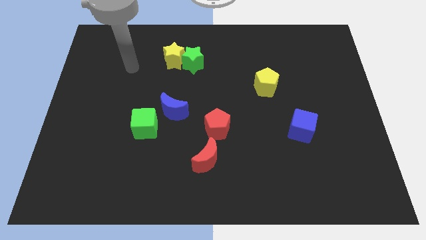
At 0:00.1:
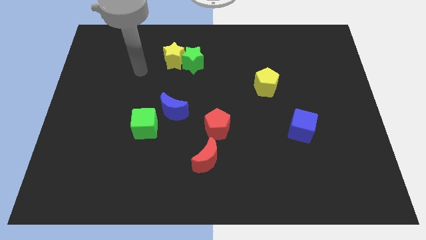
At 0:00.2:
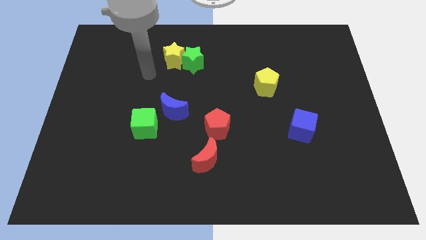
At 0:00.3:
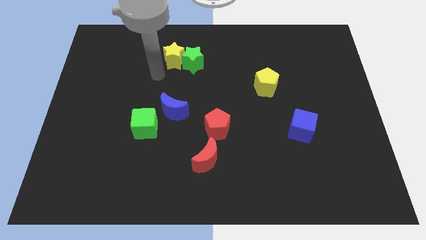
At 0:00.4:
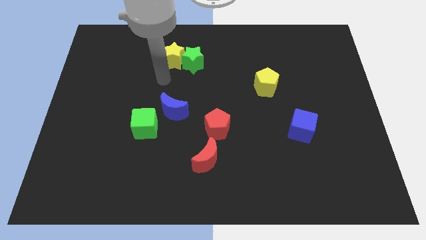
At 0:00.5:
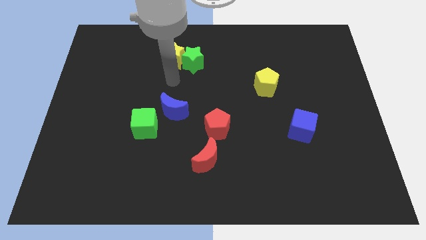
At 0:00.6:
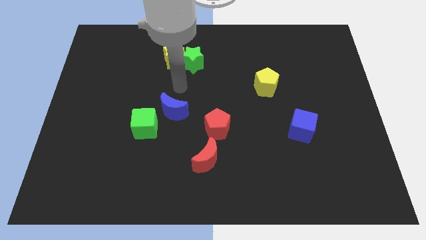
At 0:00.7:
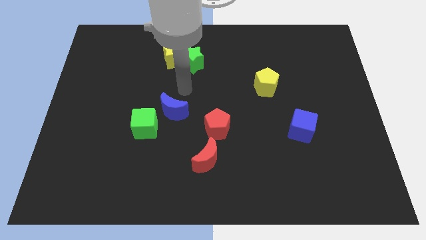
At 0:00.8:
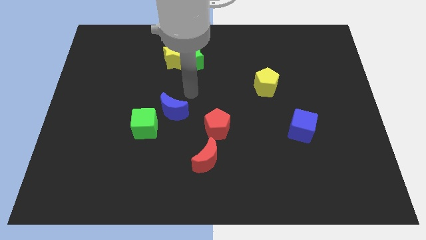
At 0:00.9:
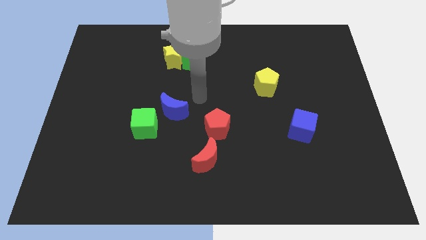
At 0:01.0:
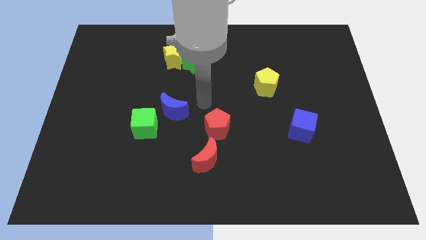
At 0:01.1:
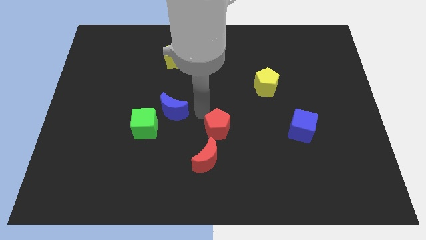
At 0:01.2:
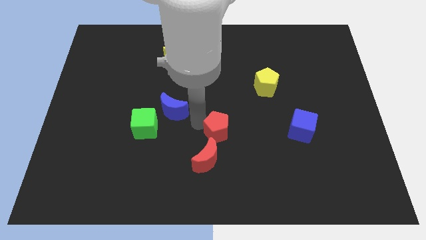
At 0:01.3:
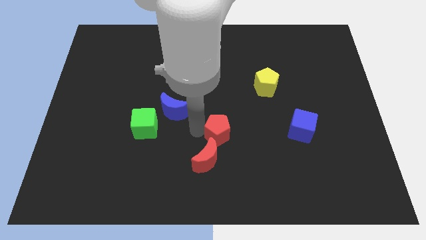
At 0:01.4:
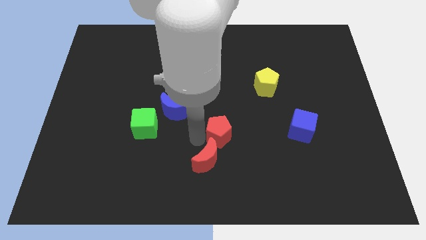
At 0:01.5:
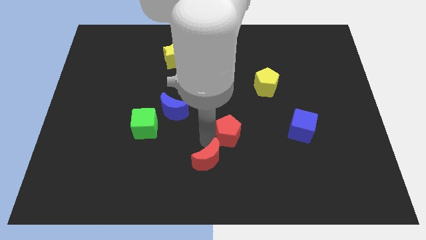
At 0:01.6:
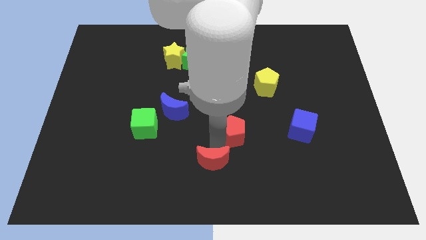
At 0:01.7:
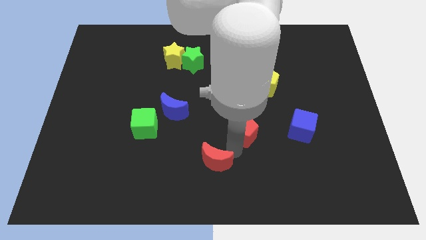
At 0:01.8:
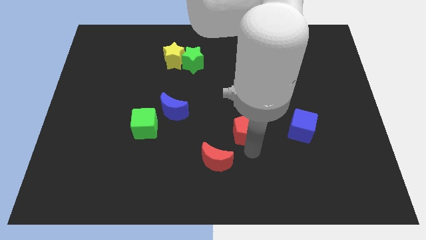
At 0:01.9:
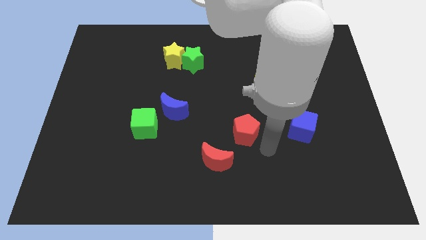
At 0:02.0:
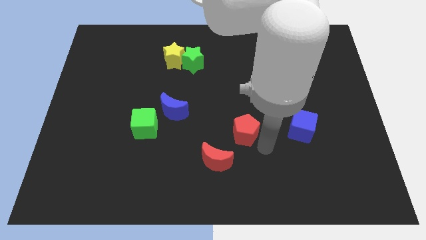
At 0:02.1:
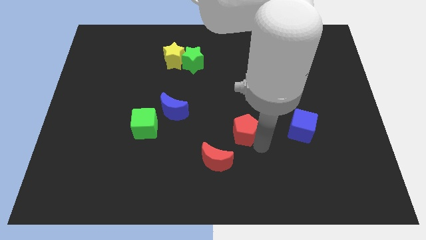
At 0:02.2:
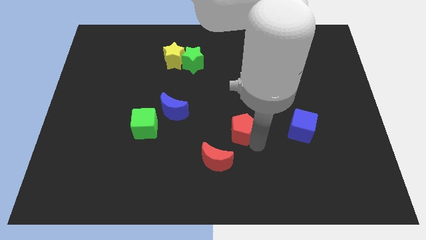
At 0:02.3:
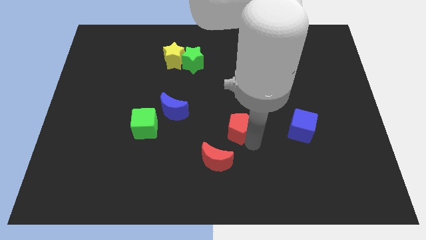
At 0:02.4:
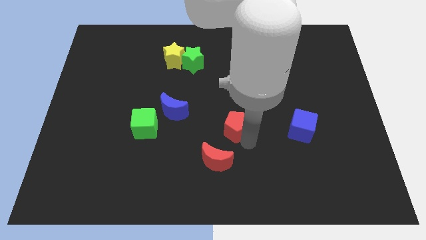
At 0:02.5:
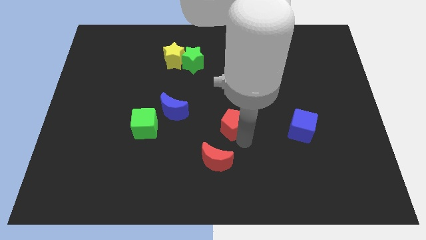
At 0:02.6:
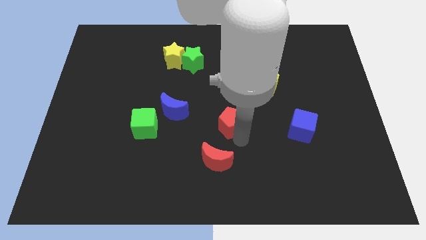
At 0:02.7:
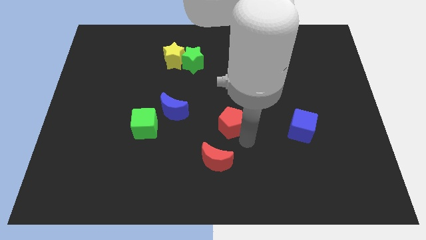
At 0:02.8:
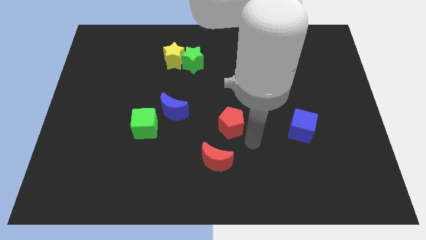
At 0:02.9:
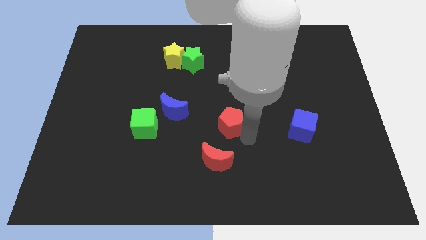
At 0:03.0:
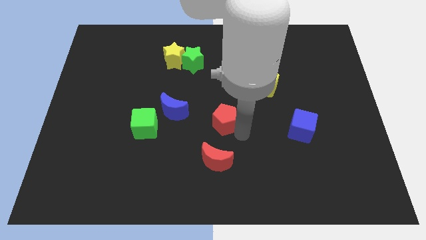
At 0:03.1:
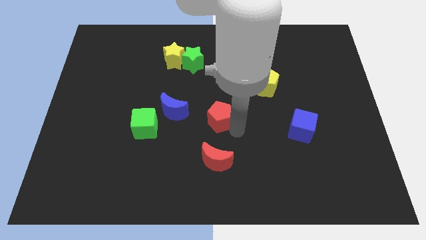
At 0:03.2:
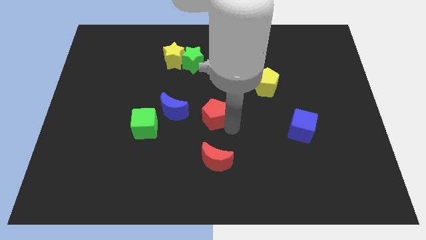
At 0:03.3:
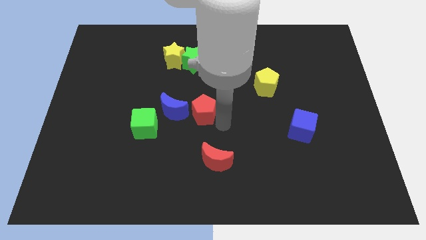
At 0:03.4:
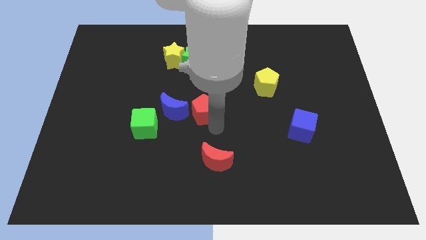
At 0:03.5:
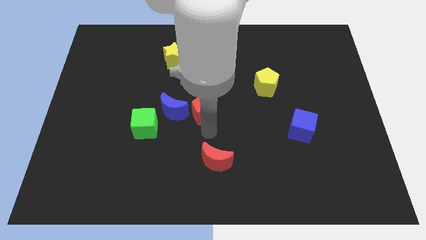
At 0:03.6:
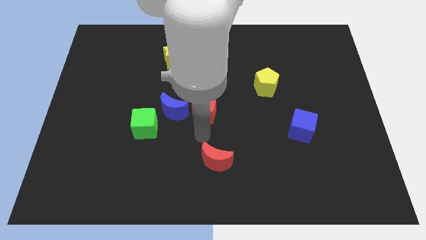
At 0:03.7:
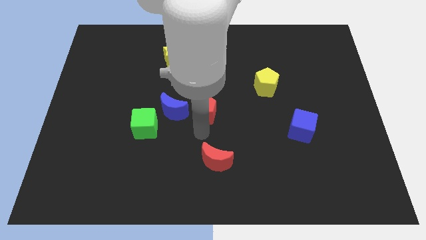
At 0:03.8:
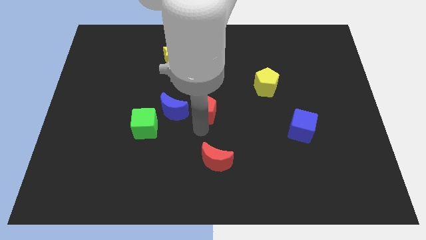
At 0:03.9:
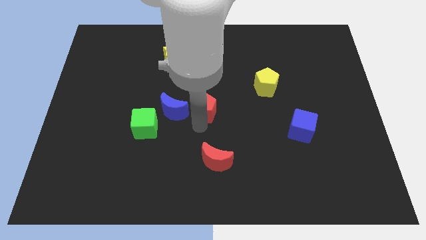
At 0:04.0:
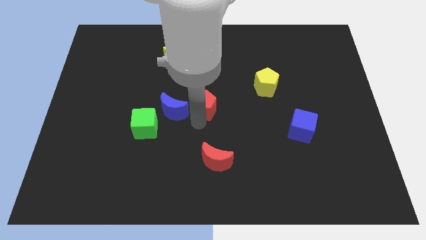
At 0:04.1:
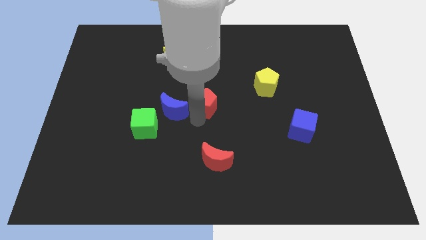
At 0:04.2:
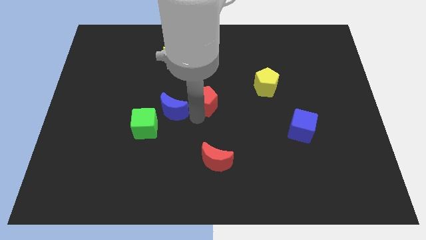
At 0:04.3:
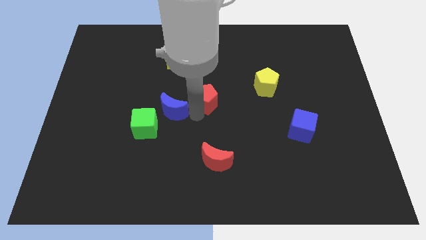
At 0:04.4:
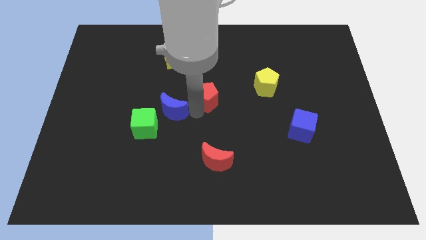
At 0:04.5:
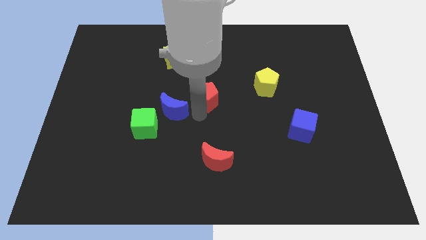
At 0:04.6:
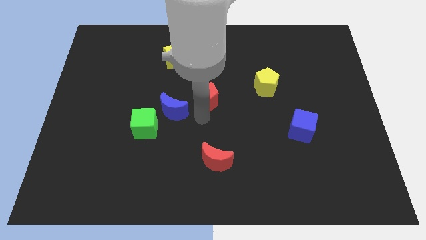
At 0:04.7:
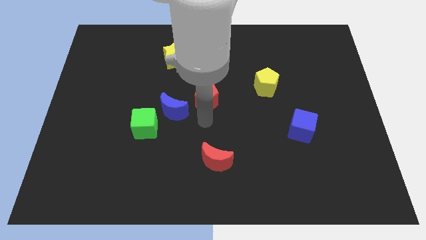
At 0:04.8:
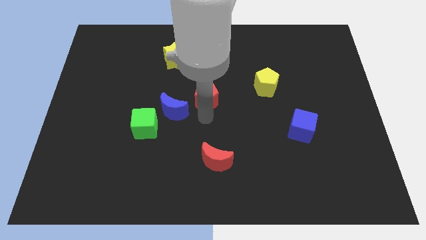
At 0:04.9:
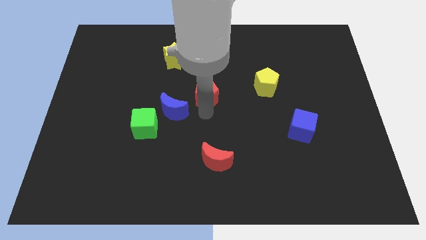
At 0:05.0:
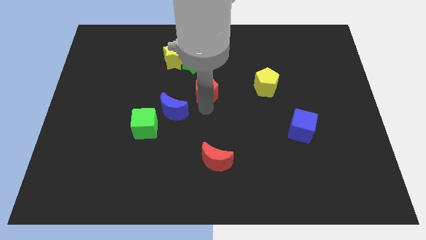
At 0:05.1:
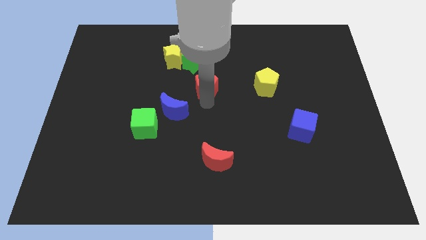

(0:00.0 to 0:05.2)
push the red pentagon diagonally down and to the right of the yellow star

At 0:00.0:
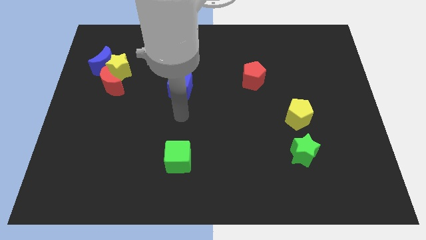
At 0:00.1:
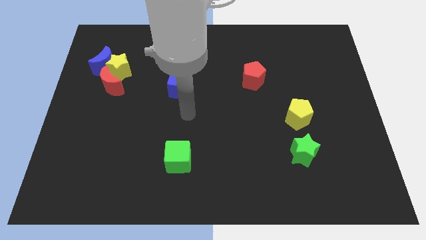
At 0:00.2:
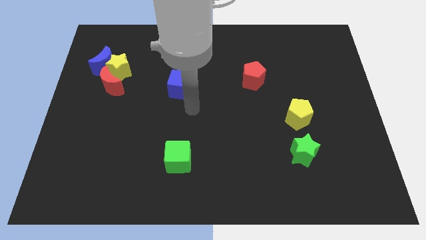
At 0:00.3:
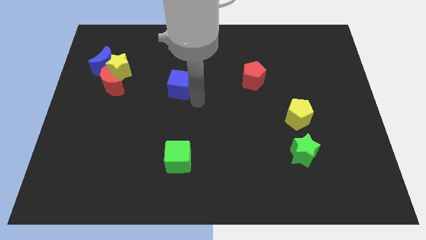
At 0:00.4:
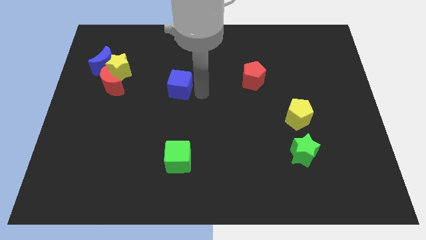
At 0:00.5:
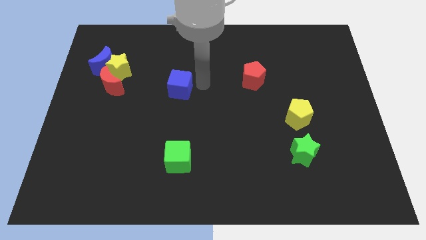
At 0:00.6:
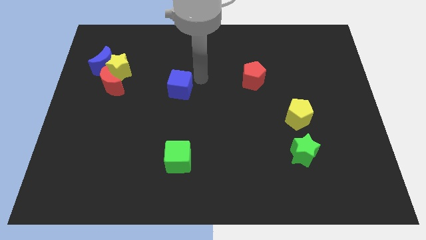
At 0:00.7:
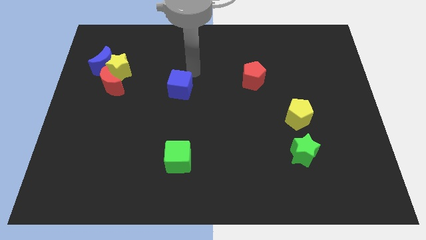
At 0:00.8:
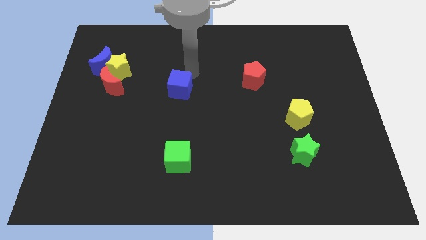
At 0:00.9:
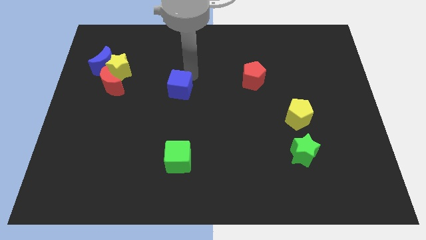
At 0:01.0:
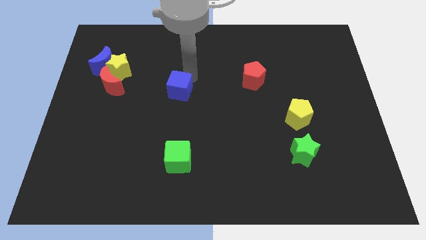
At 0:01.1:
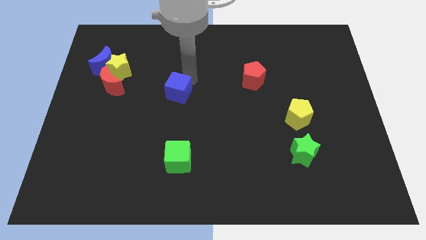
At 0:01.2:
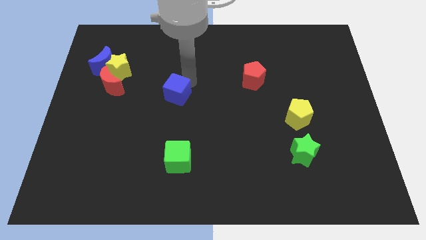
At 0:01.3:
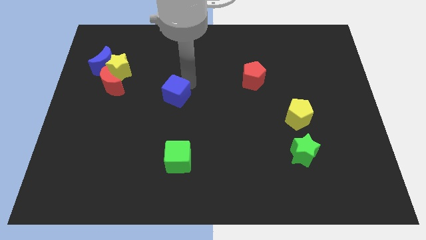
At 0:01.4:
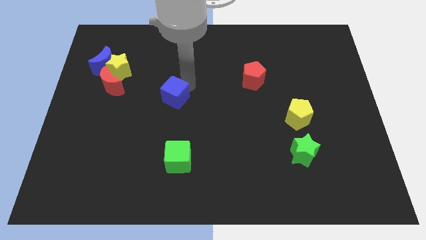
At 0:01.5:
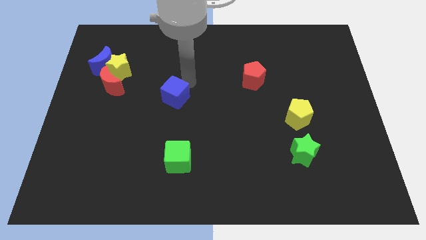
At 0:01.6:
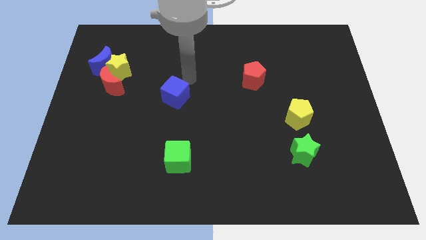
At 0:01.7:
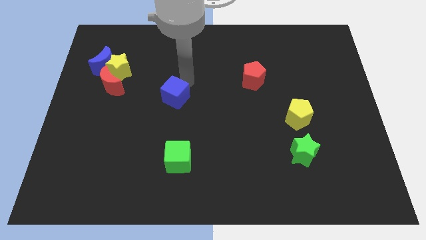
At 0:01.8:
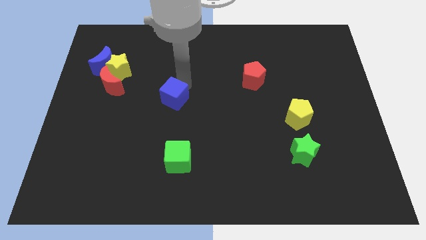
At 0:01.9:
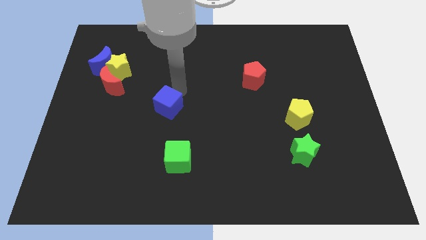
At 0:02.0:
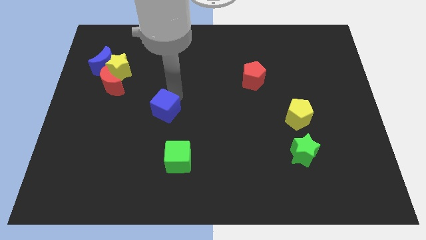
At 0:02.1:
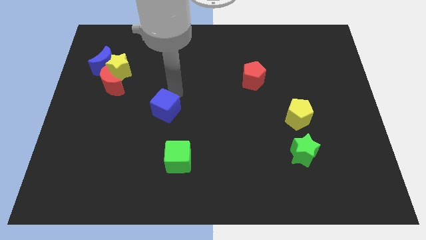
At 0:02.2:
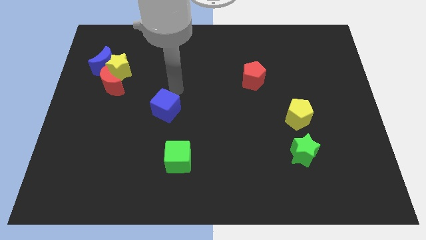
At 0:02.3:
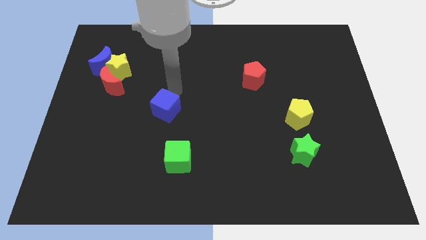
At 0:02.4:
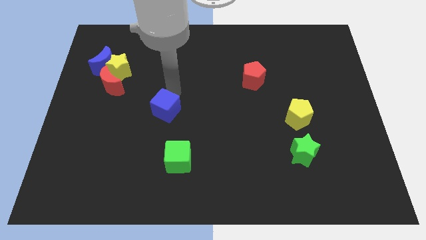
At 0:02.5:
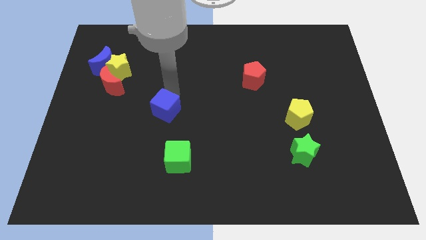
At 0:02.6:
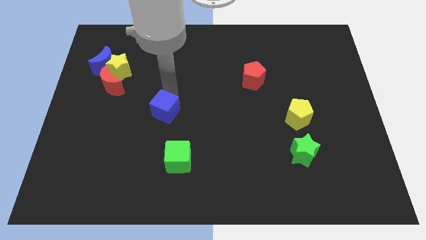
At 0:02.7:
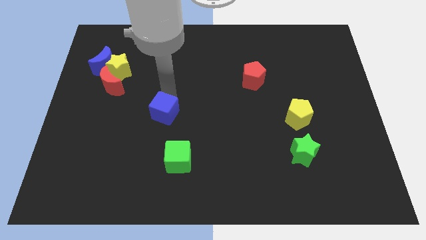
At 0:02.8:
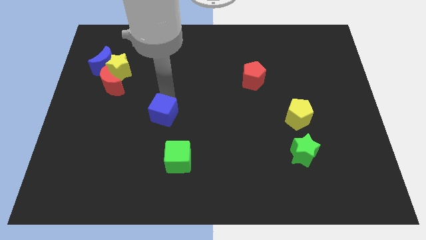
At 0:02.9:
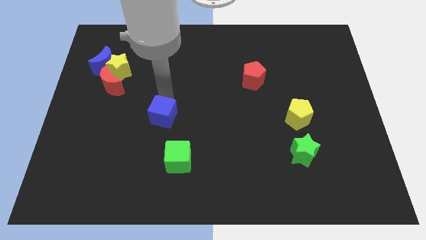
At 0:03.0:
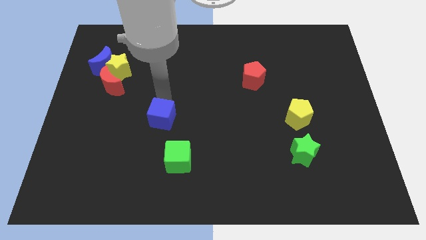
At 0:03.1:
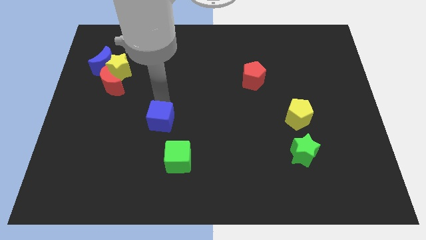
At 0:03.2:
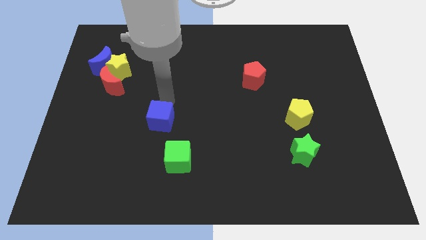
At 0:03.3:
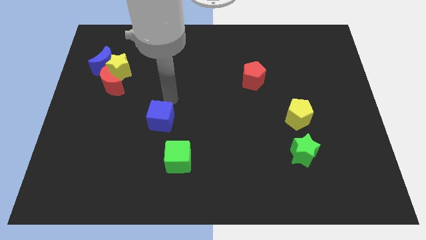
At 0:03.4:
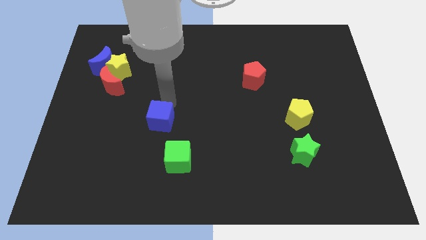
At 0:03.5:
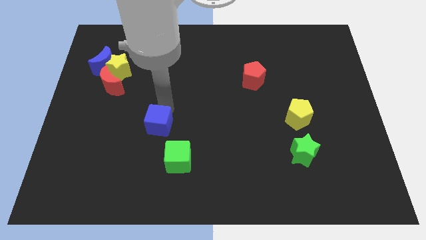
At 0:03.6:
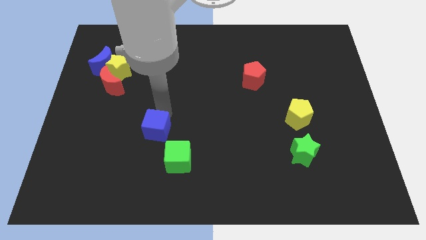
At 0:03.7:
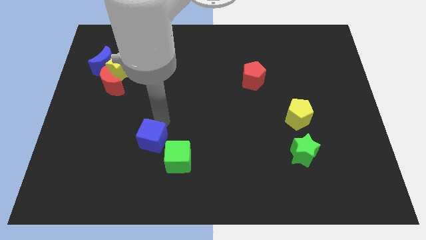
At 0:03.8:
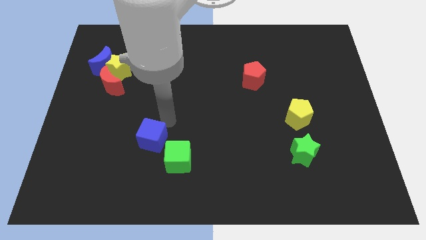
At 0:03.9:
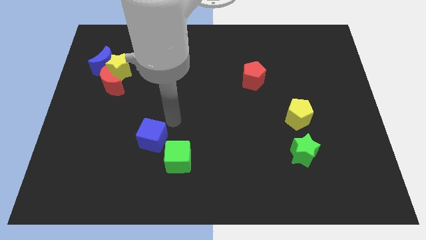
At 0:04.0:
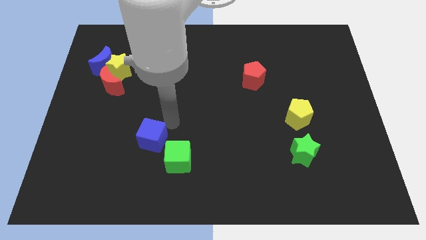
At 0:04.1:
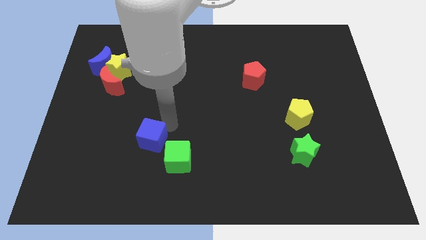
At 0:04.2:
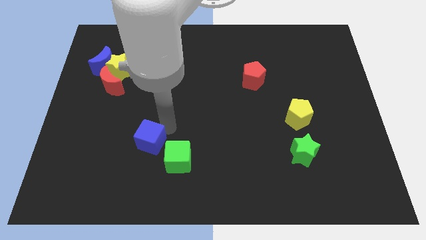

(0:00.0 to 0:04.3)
put the blue cube to the left of the green cube
